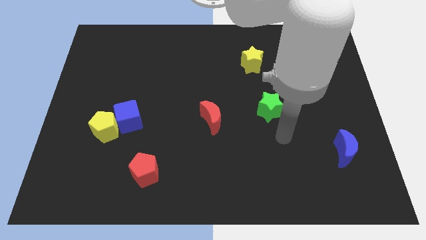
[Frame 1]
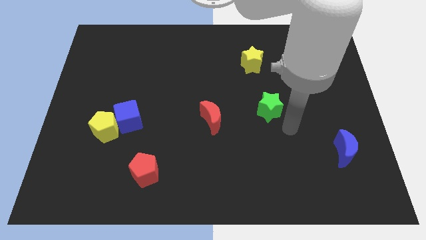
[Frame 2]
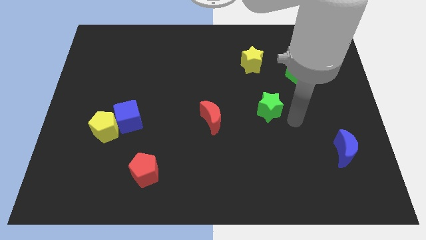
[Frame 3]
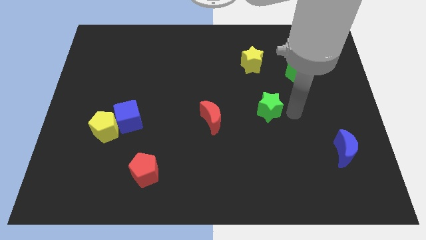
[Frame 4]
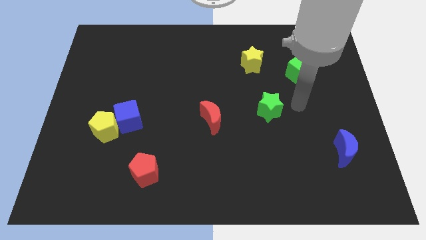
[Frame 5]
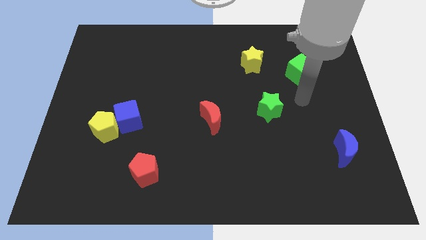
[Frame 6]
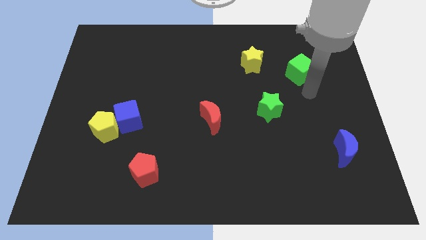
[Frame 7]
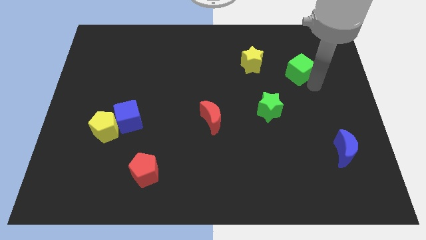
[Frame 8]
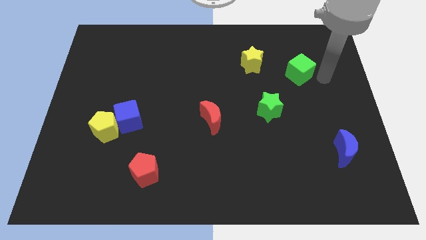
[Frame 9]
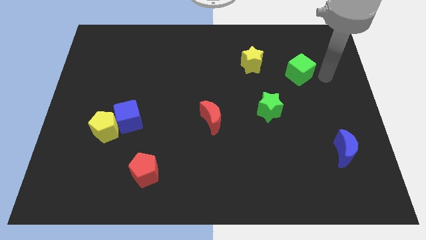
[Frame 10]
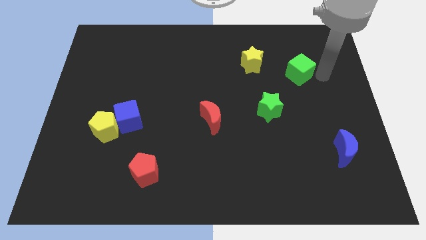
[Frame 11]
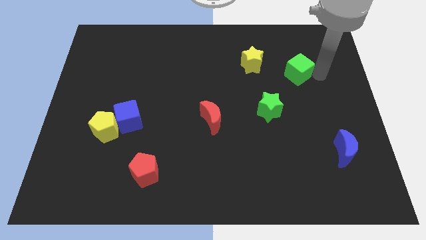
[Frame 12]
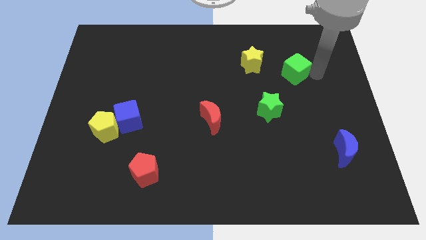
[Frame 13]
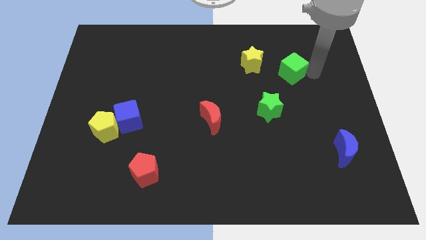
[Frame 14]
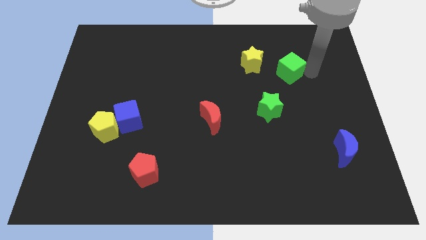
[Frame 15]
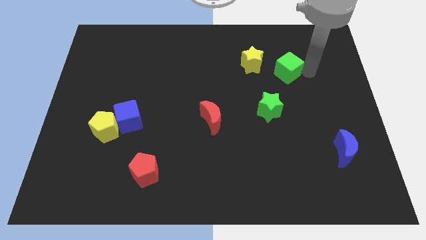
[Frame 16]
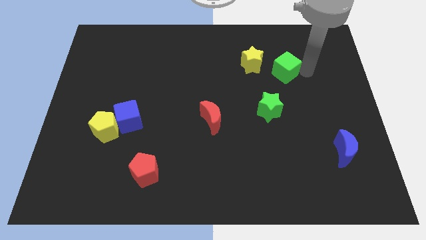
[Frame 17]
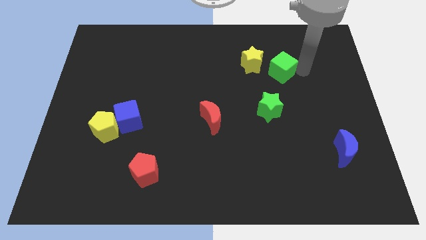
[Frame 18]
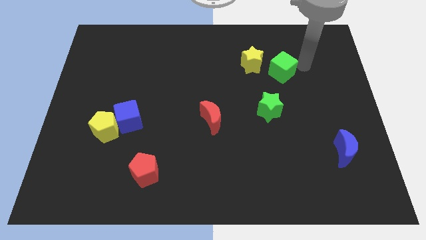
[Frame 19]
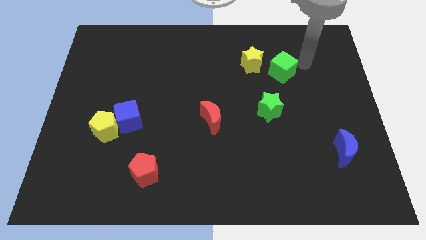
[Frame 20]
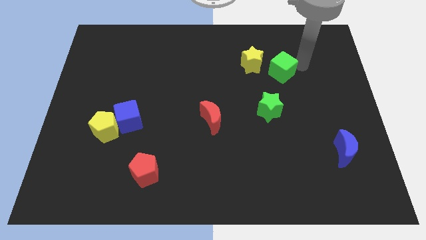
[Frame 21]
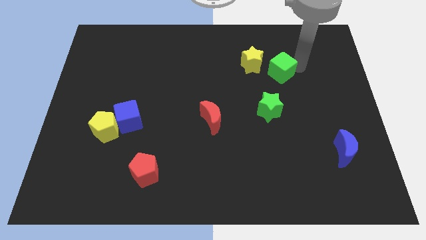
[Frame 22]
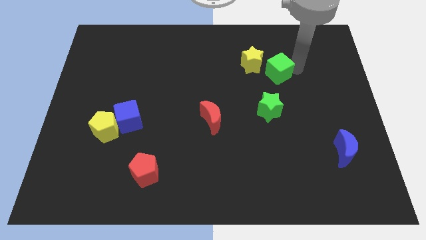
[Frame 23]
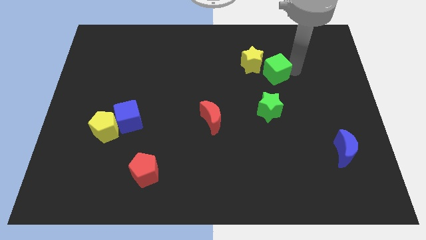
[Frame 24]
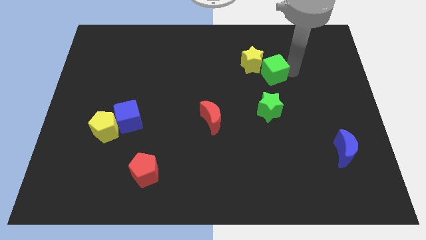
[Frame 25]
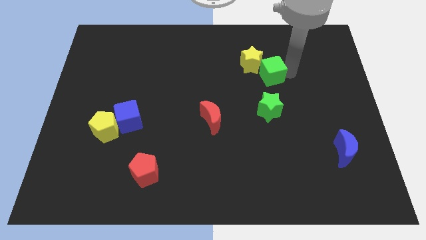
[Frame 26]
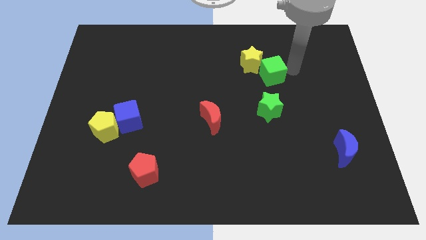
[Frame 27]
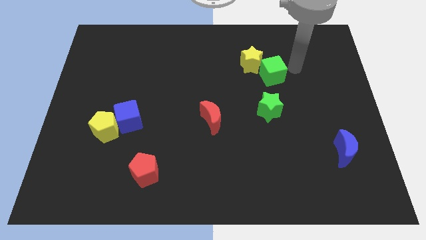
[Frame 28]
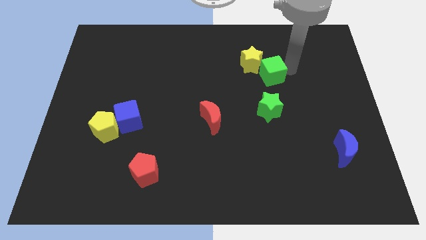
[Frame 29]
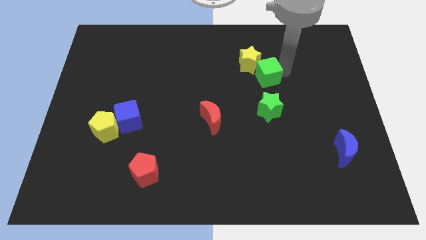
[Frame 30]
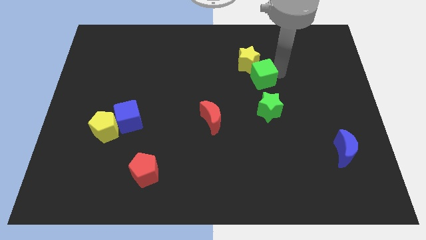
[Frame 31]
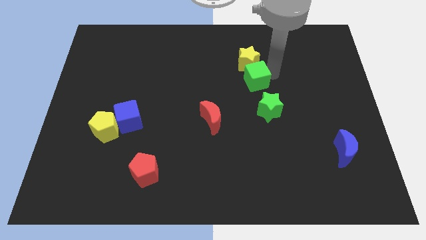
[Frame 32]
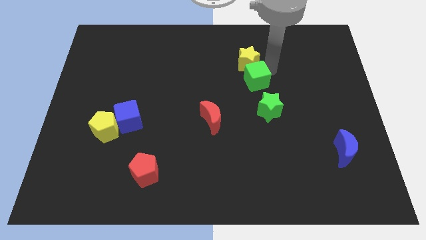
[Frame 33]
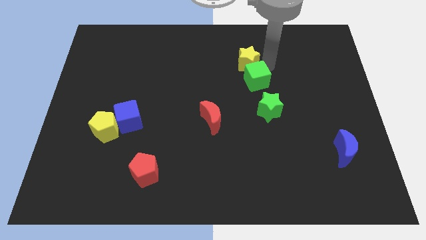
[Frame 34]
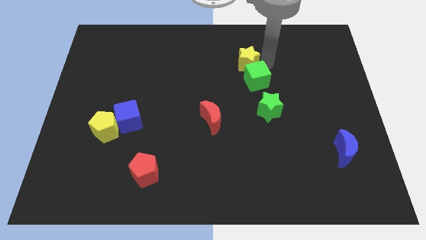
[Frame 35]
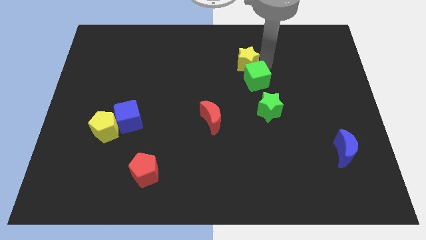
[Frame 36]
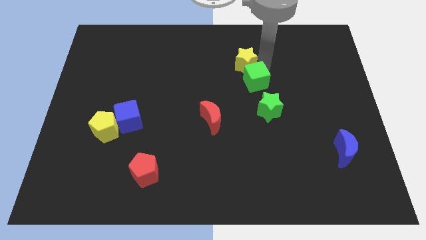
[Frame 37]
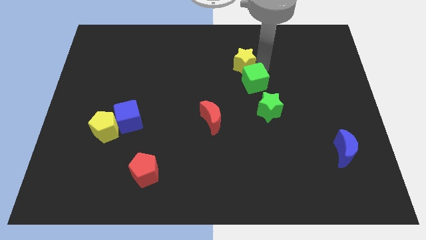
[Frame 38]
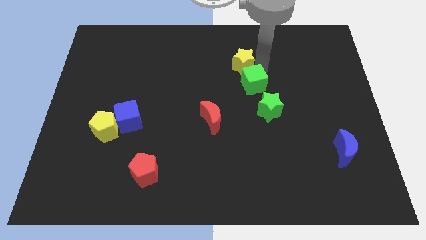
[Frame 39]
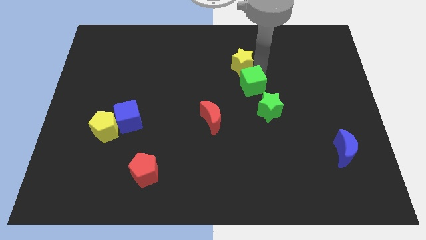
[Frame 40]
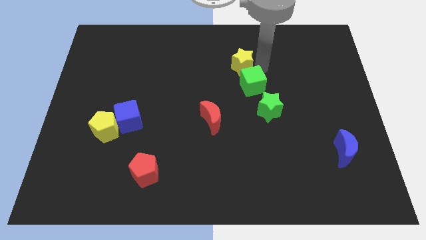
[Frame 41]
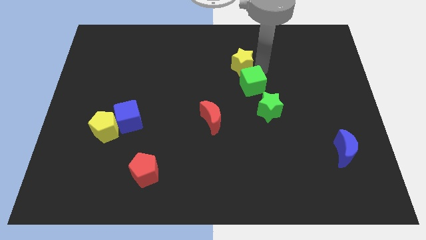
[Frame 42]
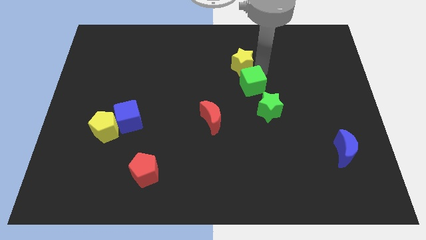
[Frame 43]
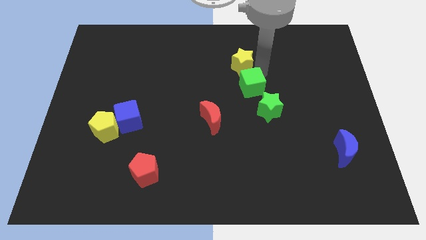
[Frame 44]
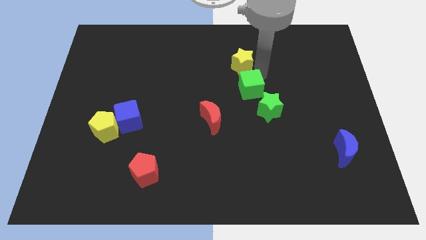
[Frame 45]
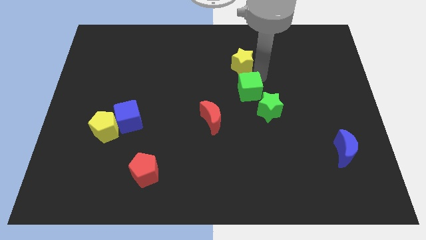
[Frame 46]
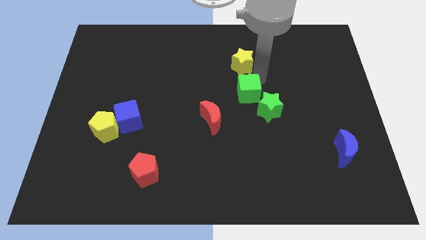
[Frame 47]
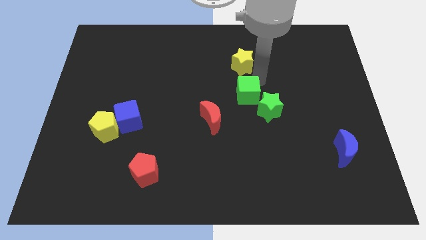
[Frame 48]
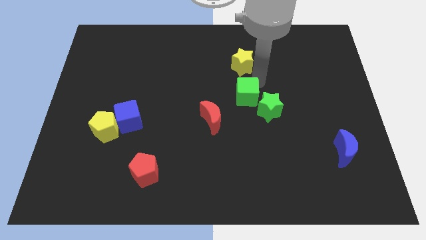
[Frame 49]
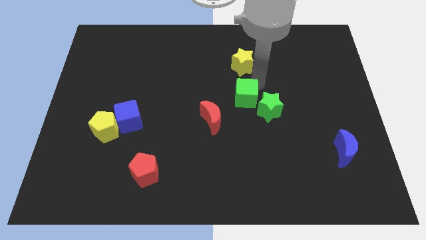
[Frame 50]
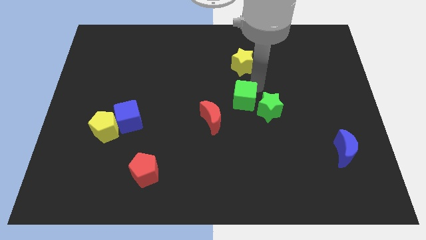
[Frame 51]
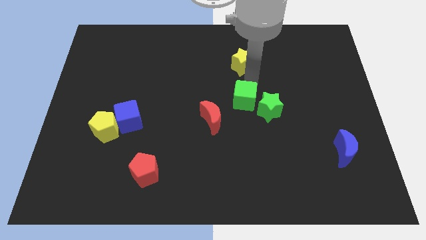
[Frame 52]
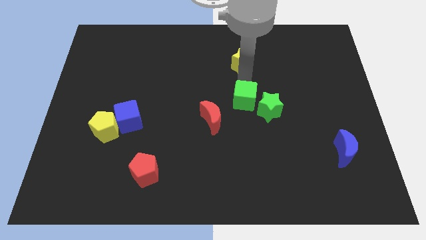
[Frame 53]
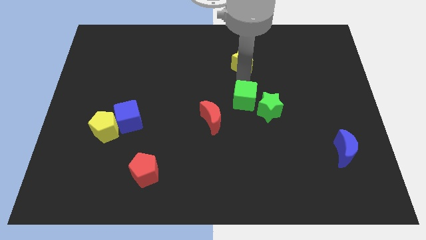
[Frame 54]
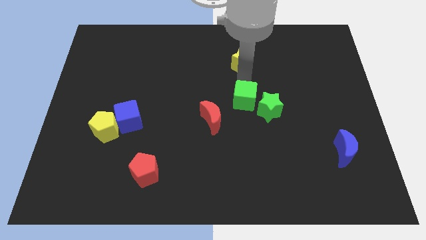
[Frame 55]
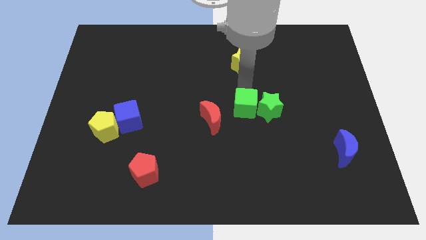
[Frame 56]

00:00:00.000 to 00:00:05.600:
move the green cube diagonally down and to the left of the green star

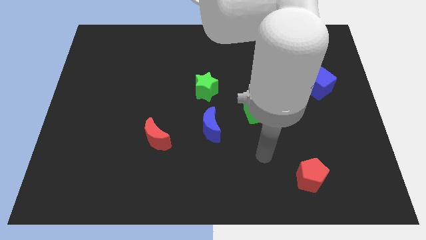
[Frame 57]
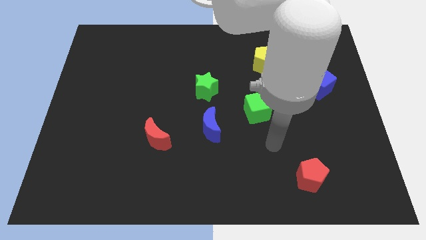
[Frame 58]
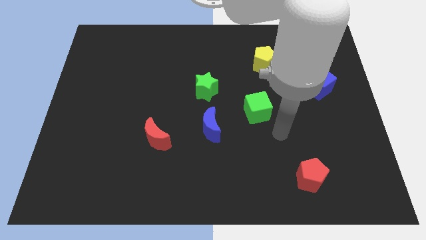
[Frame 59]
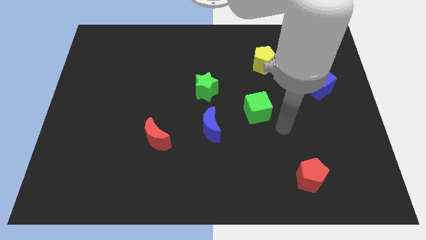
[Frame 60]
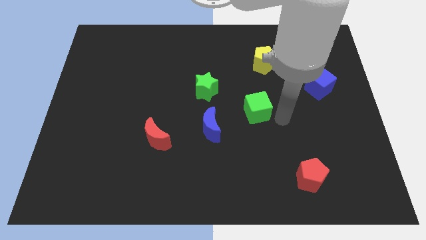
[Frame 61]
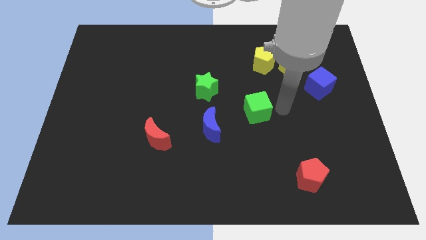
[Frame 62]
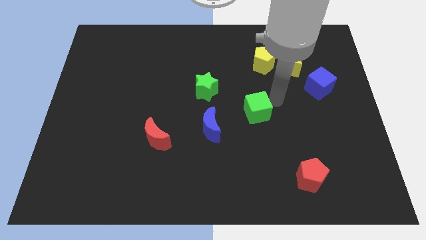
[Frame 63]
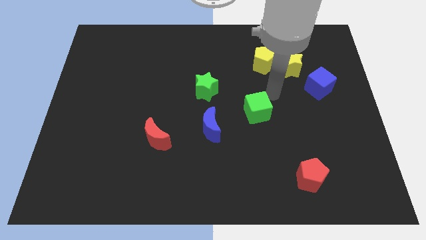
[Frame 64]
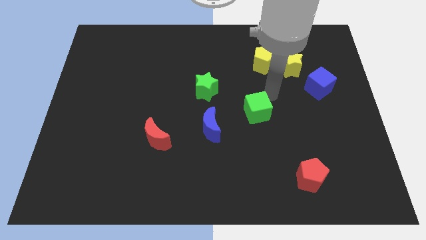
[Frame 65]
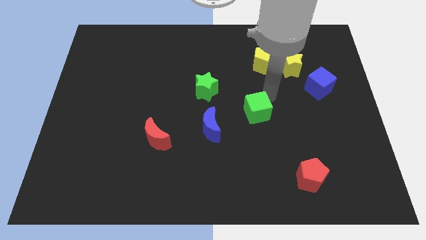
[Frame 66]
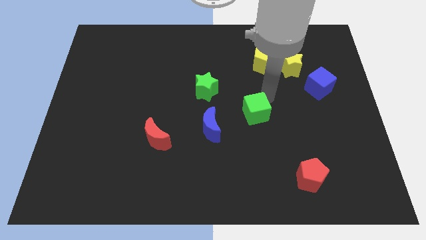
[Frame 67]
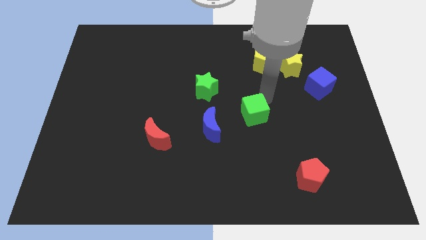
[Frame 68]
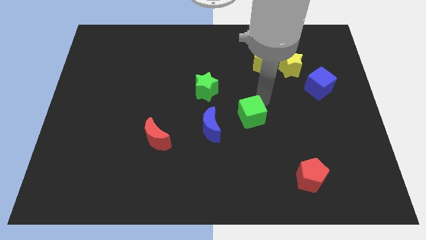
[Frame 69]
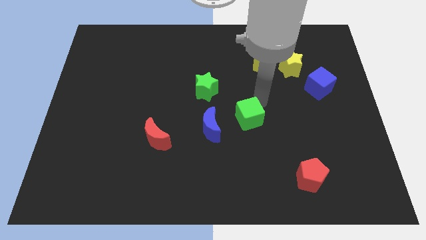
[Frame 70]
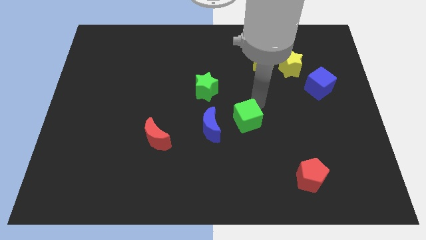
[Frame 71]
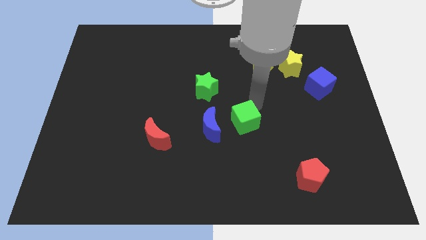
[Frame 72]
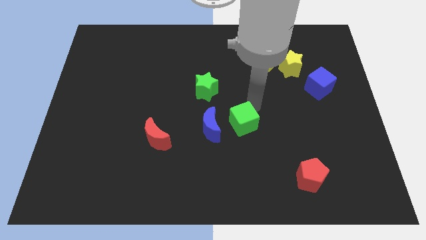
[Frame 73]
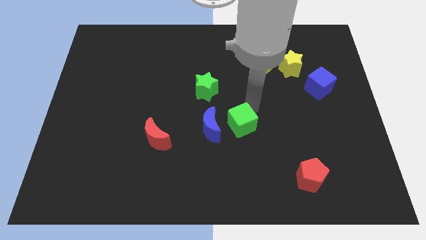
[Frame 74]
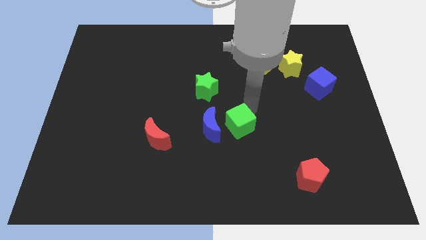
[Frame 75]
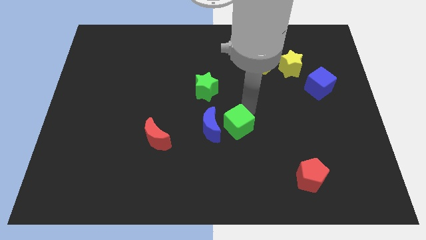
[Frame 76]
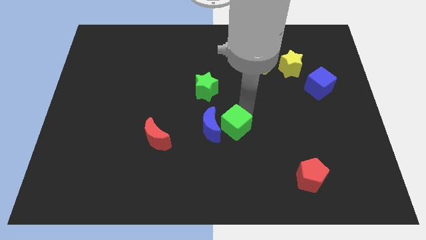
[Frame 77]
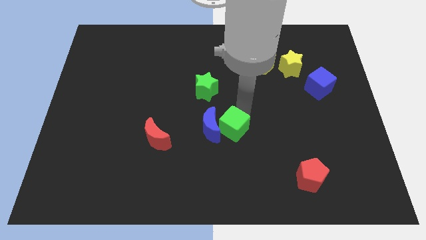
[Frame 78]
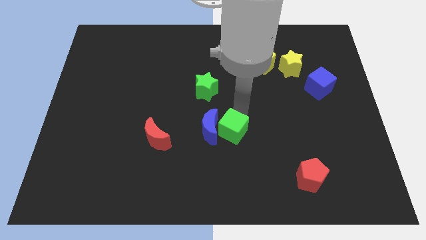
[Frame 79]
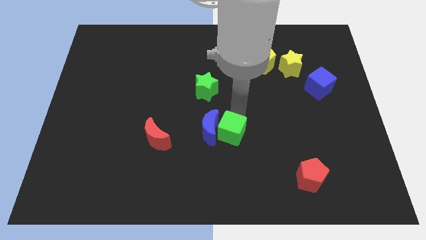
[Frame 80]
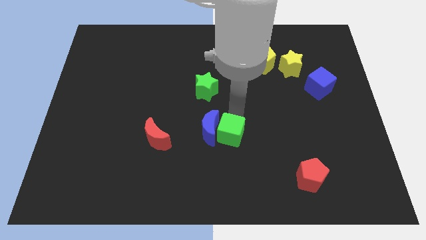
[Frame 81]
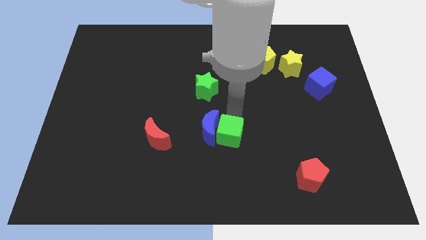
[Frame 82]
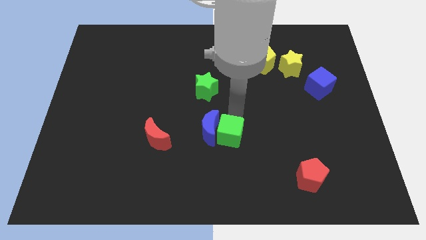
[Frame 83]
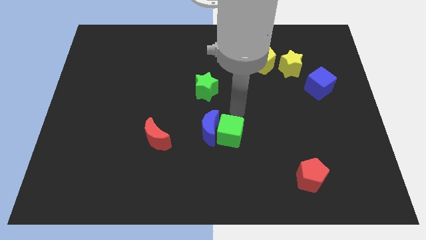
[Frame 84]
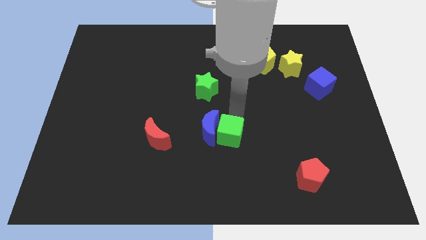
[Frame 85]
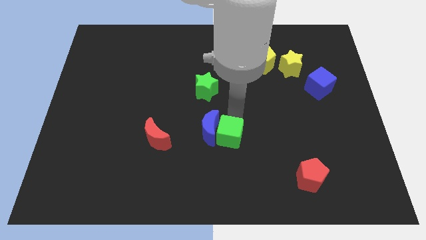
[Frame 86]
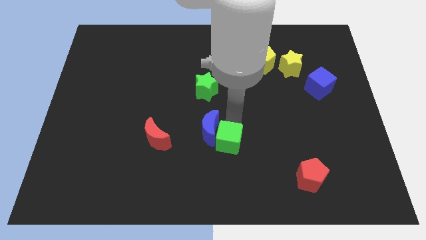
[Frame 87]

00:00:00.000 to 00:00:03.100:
put the green cube to the bottom side of the blue moon
